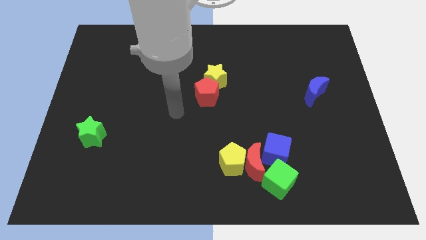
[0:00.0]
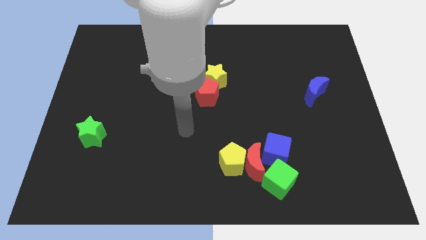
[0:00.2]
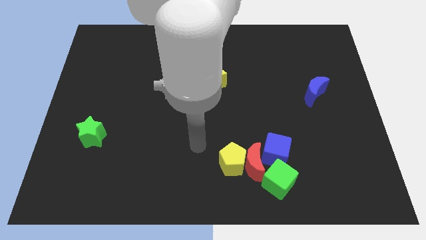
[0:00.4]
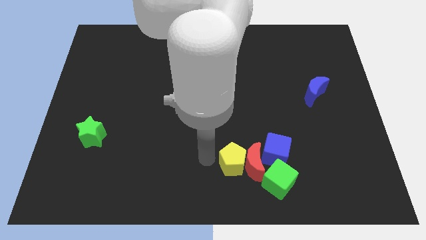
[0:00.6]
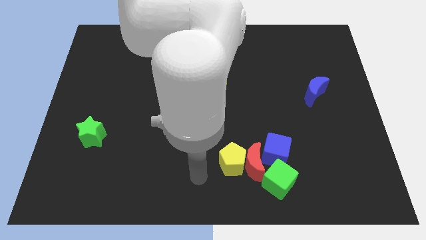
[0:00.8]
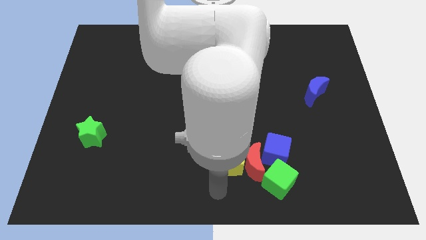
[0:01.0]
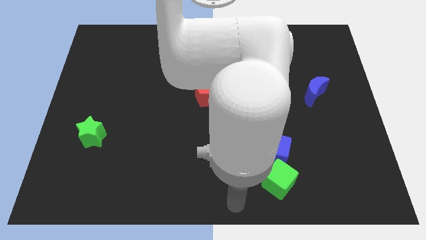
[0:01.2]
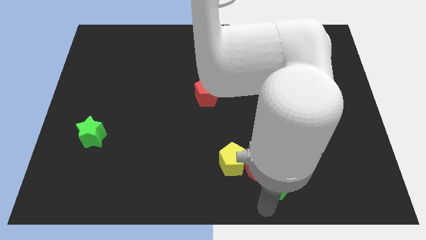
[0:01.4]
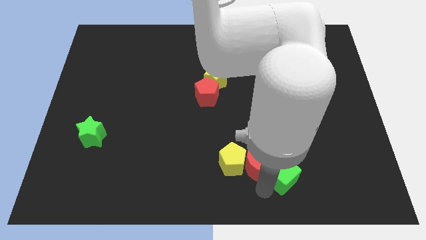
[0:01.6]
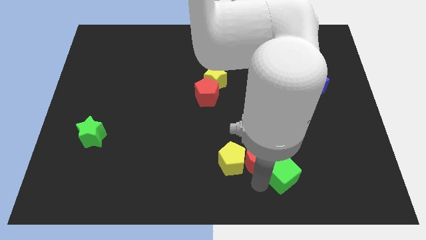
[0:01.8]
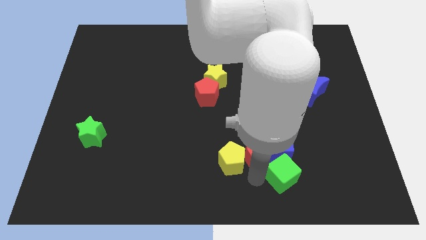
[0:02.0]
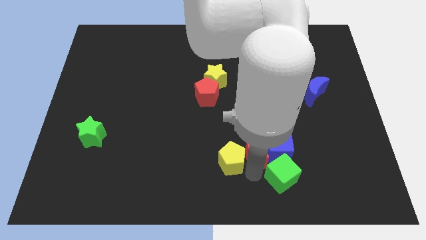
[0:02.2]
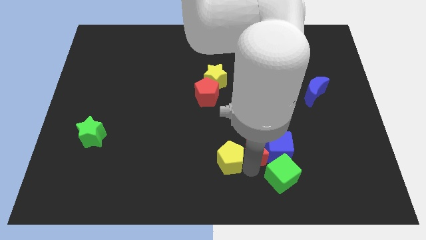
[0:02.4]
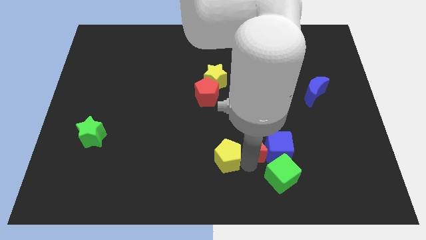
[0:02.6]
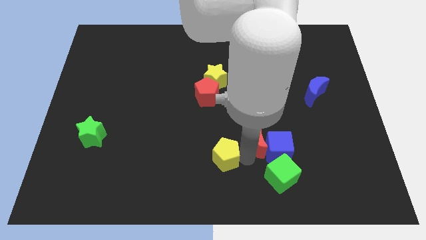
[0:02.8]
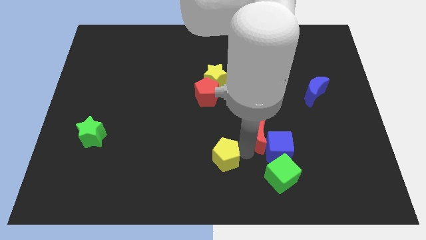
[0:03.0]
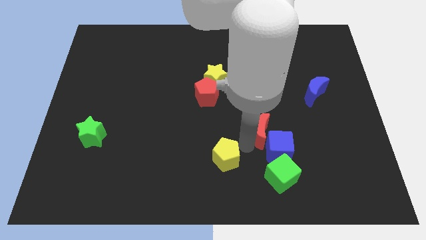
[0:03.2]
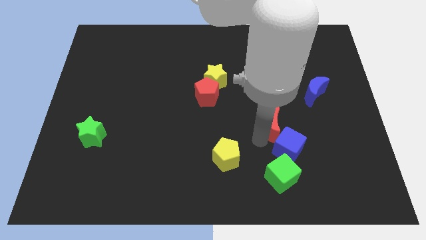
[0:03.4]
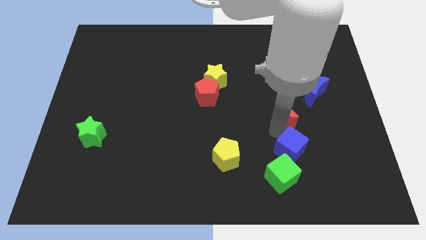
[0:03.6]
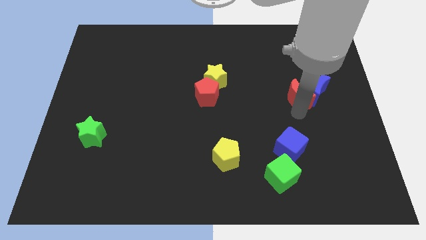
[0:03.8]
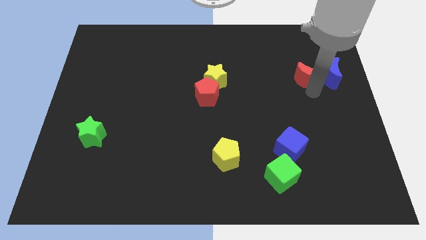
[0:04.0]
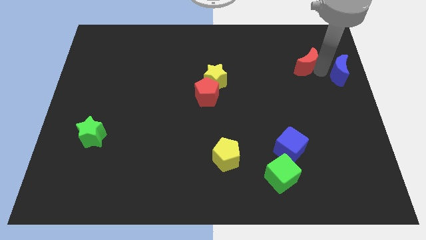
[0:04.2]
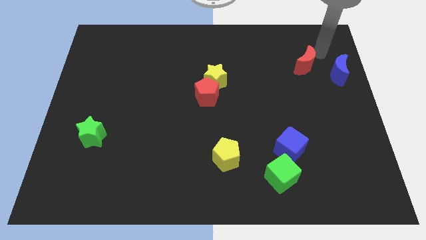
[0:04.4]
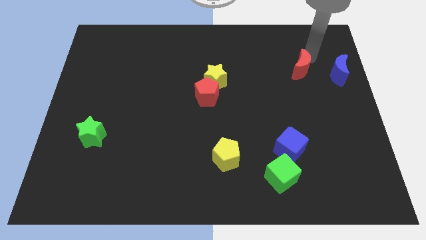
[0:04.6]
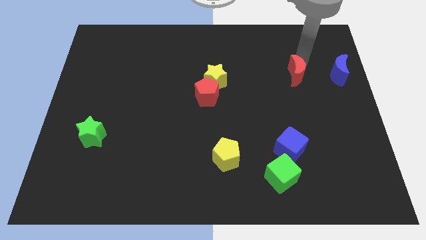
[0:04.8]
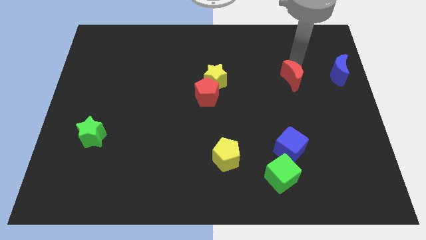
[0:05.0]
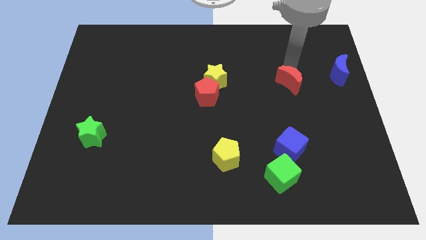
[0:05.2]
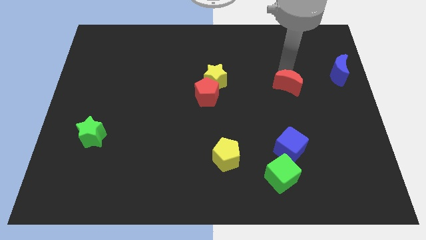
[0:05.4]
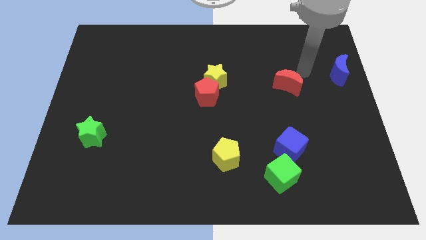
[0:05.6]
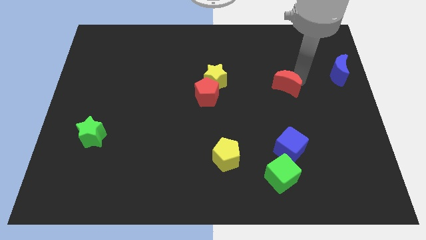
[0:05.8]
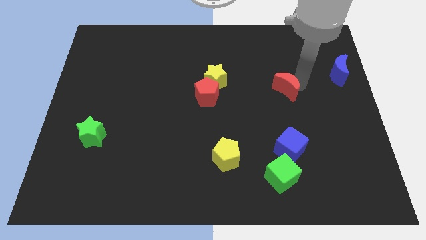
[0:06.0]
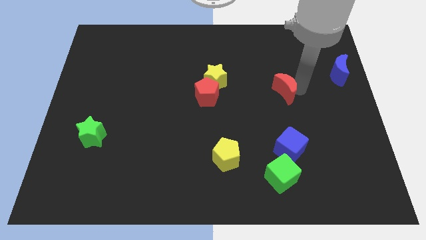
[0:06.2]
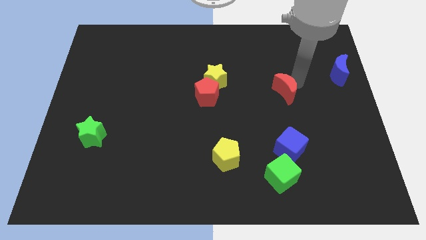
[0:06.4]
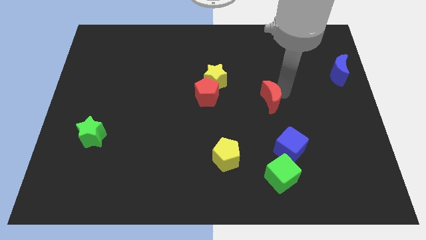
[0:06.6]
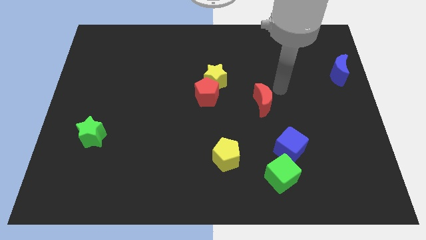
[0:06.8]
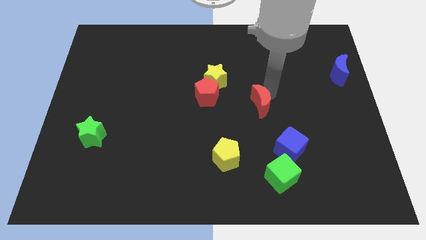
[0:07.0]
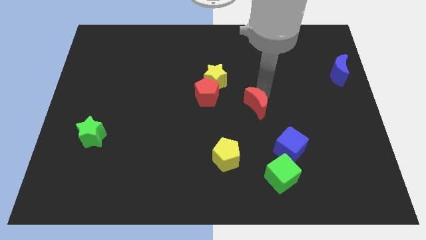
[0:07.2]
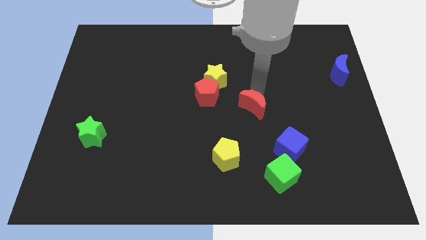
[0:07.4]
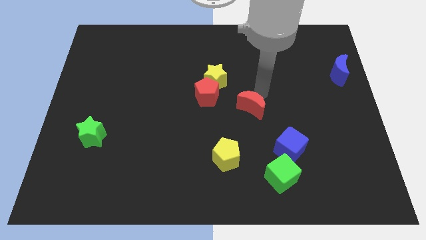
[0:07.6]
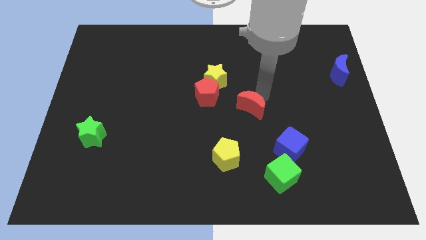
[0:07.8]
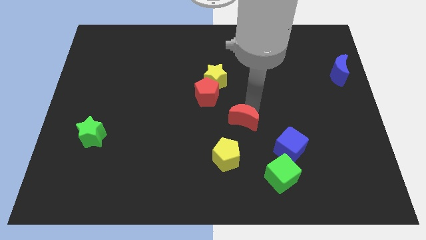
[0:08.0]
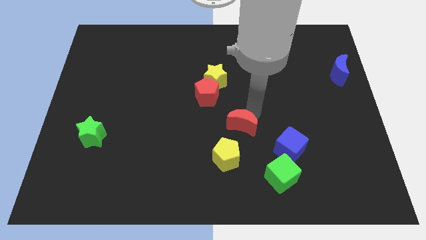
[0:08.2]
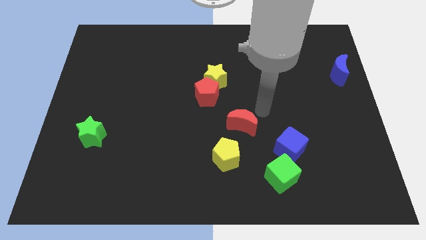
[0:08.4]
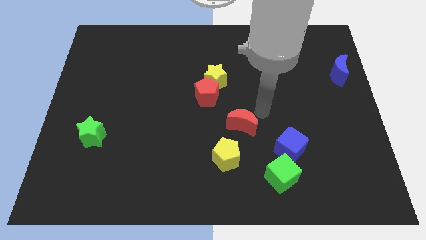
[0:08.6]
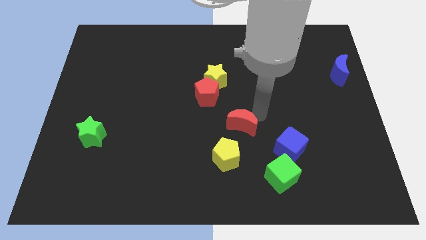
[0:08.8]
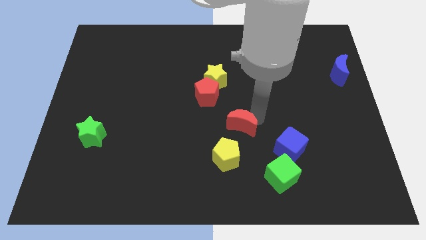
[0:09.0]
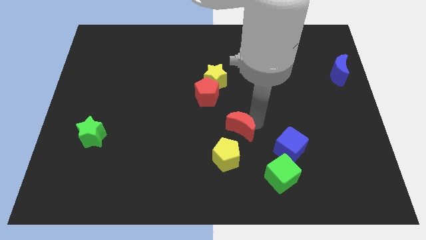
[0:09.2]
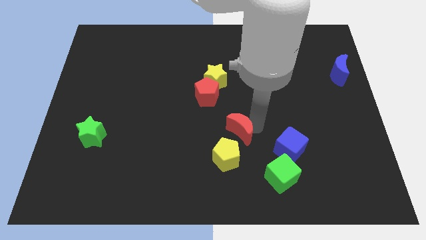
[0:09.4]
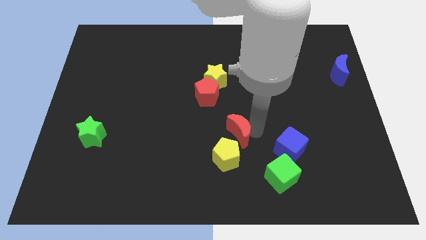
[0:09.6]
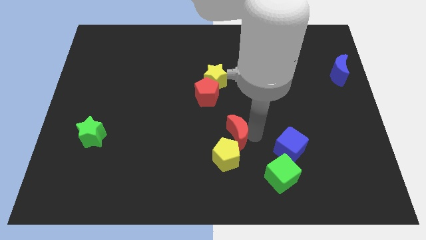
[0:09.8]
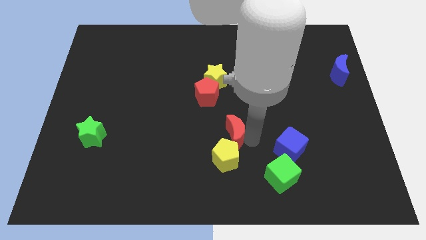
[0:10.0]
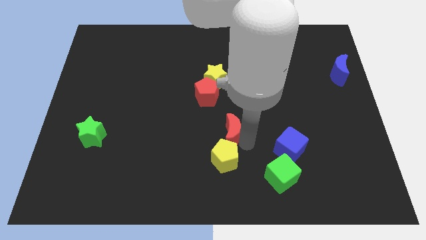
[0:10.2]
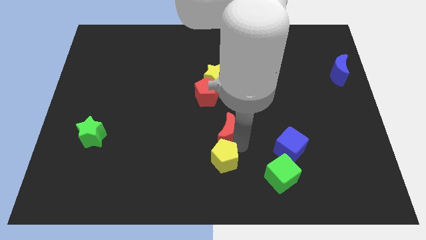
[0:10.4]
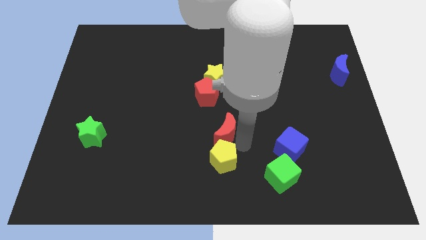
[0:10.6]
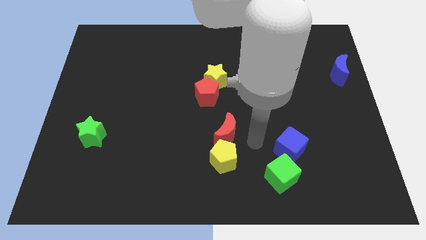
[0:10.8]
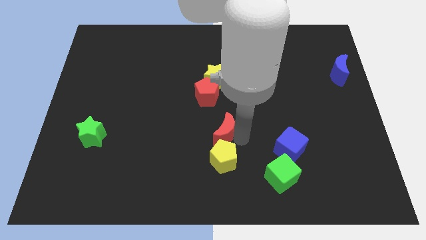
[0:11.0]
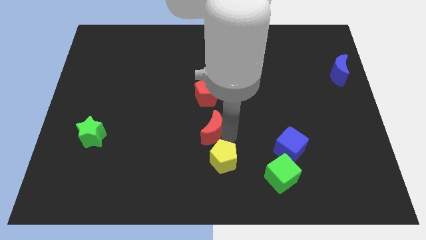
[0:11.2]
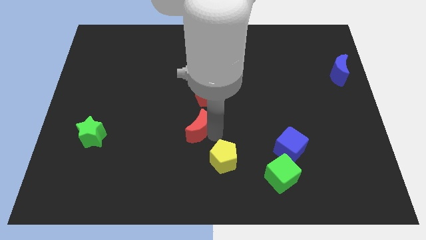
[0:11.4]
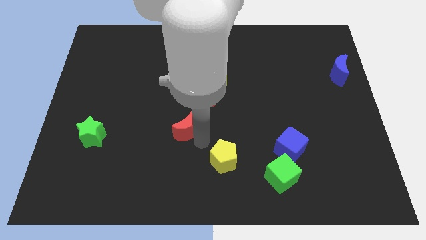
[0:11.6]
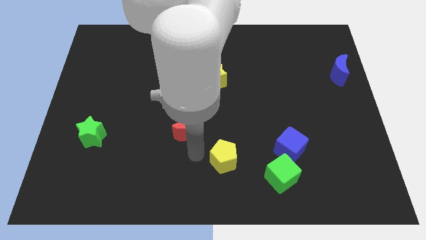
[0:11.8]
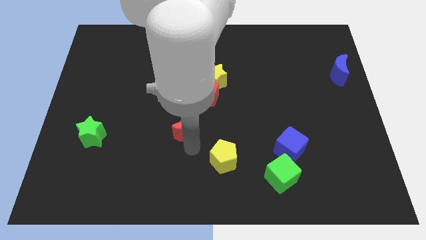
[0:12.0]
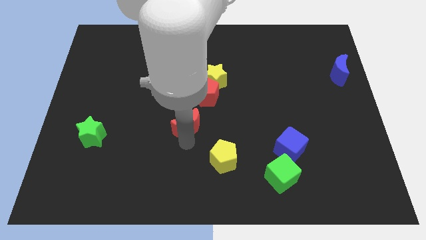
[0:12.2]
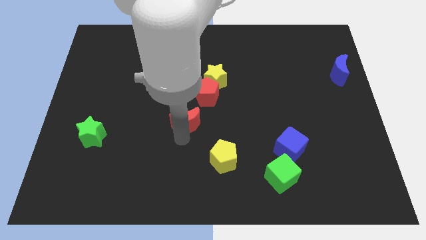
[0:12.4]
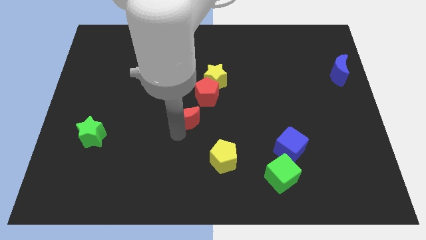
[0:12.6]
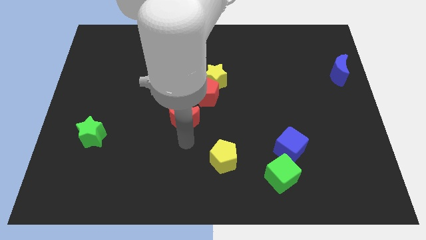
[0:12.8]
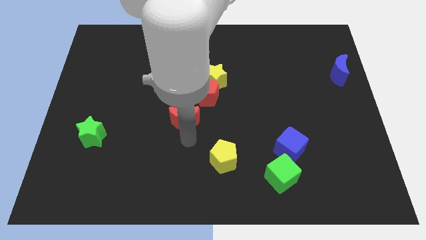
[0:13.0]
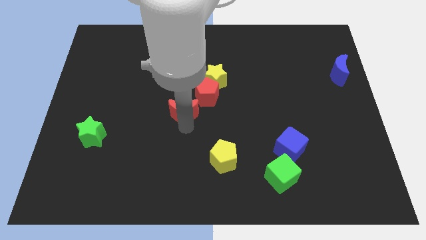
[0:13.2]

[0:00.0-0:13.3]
move the red moon up and left
